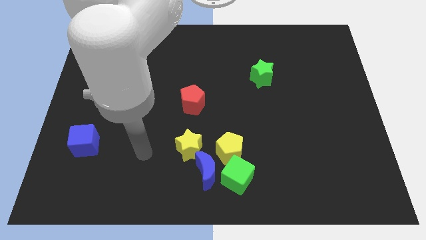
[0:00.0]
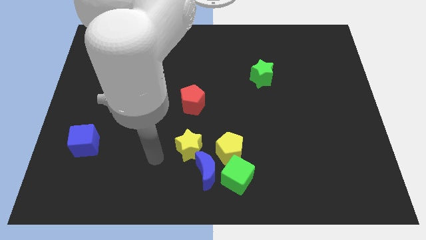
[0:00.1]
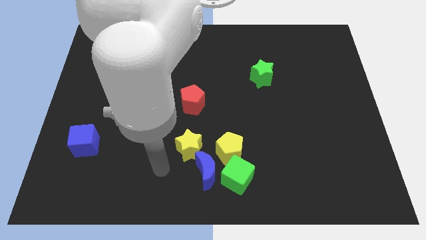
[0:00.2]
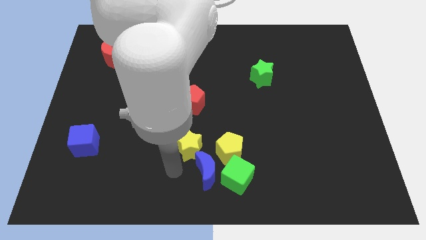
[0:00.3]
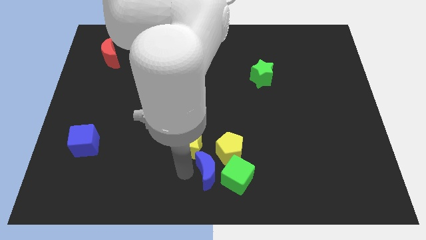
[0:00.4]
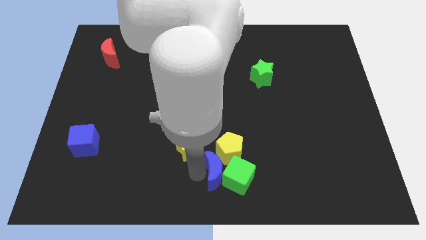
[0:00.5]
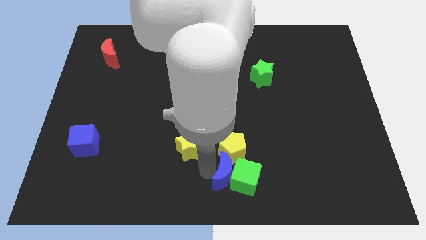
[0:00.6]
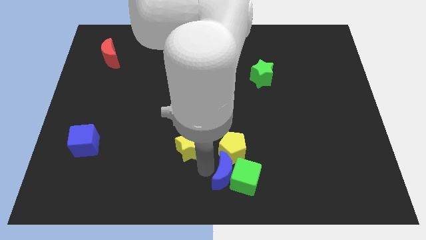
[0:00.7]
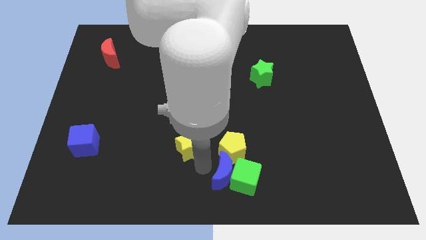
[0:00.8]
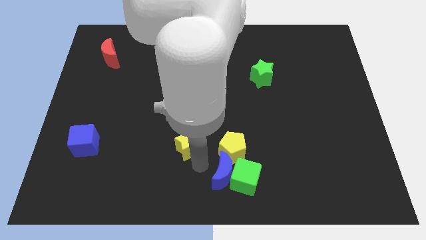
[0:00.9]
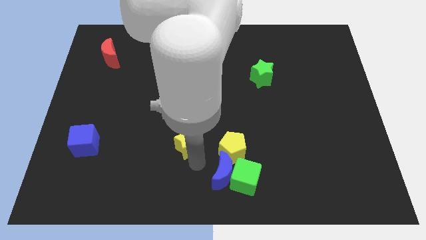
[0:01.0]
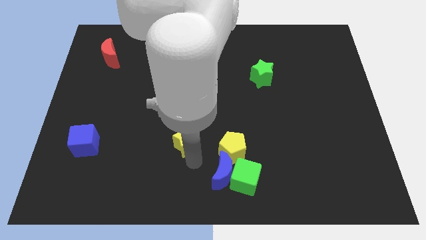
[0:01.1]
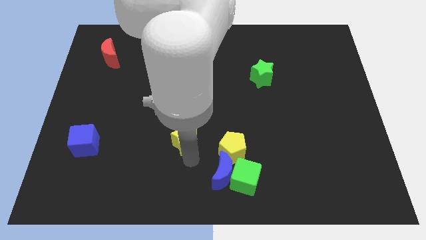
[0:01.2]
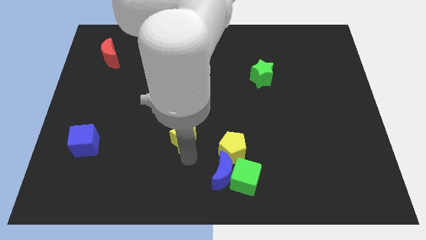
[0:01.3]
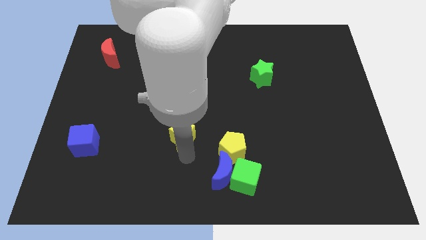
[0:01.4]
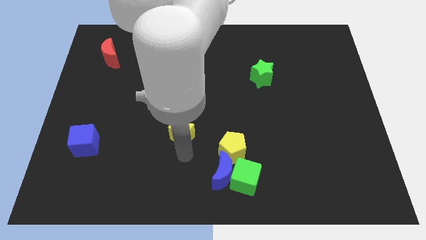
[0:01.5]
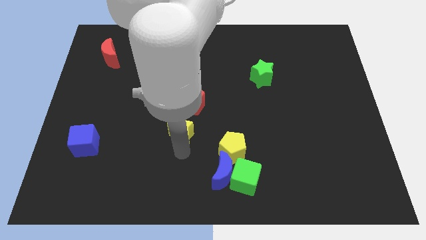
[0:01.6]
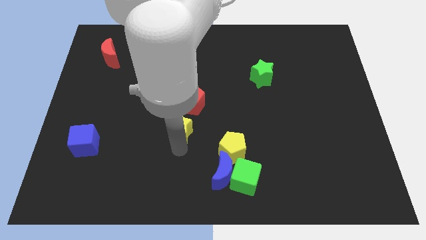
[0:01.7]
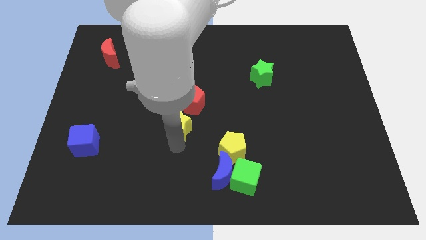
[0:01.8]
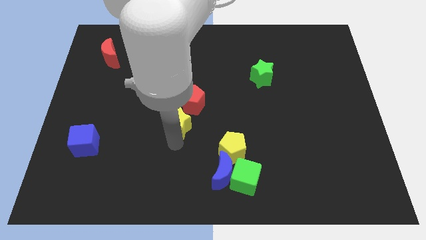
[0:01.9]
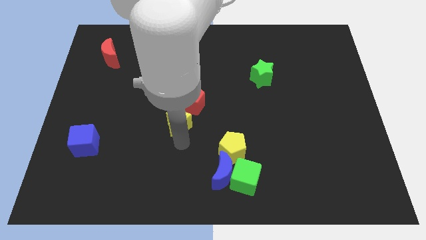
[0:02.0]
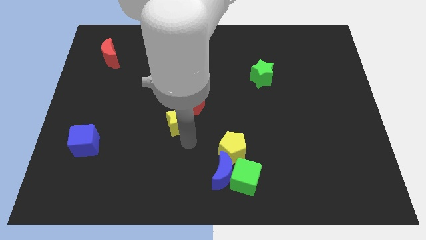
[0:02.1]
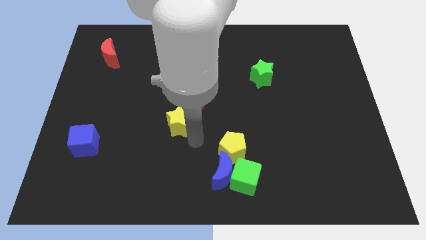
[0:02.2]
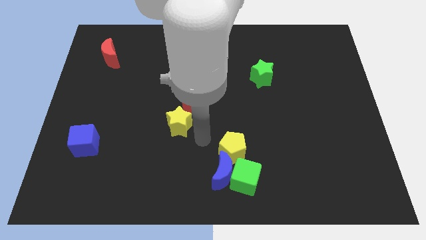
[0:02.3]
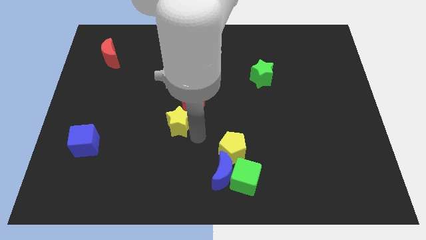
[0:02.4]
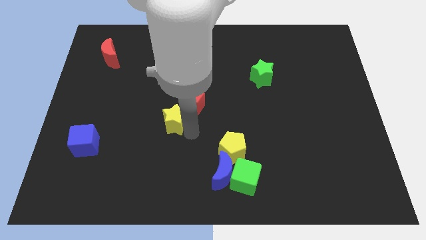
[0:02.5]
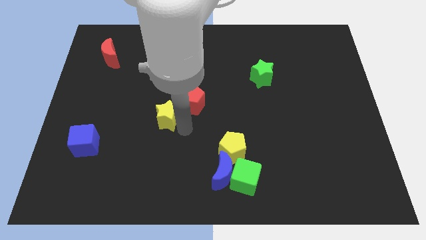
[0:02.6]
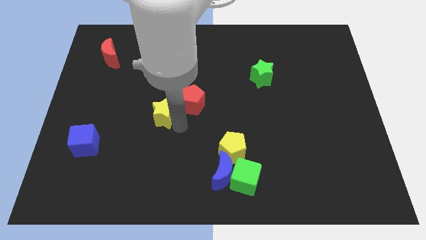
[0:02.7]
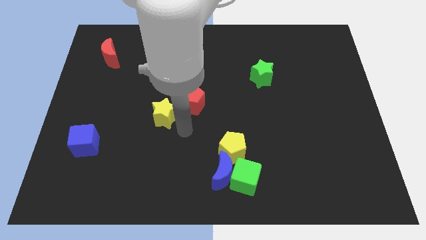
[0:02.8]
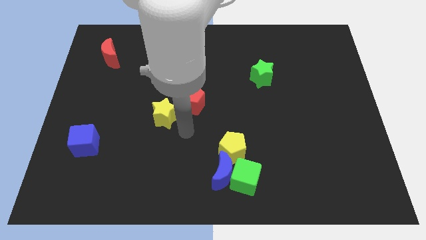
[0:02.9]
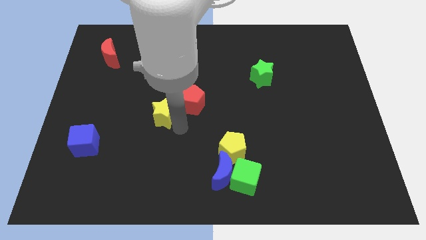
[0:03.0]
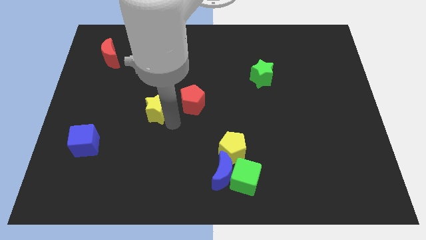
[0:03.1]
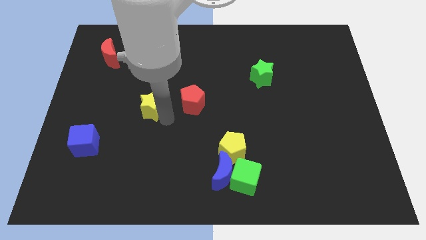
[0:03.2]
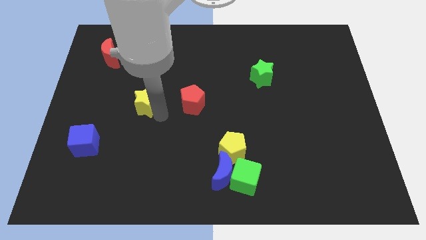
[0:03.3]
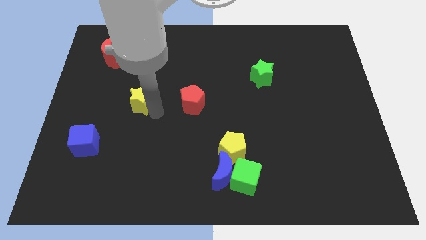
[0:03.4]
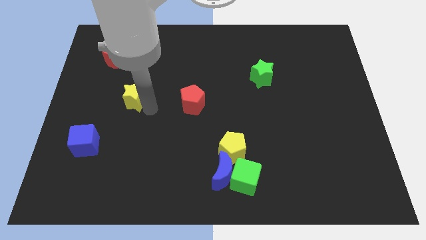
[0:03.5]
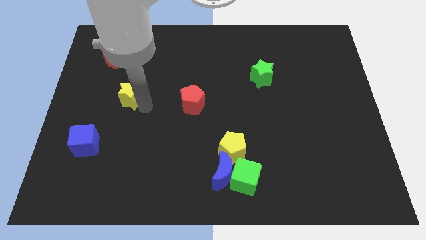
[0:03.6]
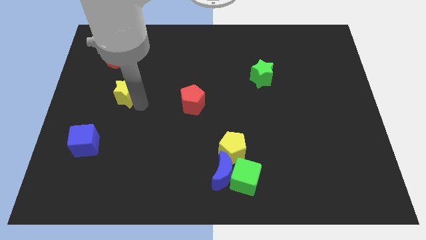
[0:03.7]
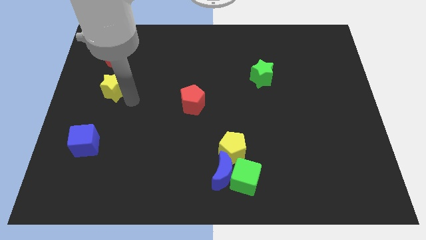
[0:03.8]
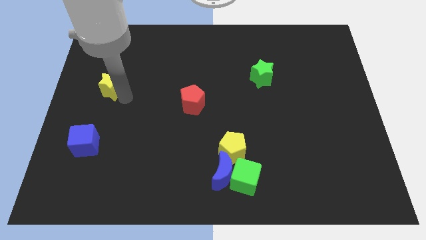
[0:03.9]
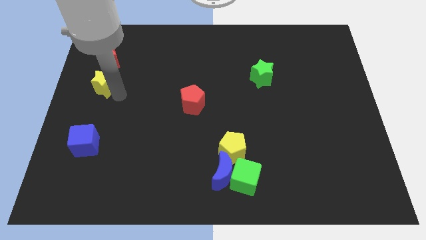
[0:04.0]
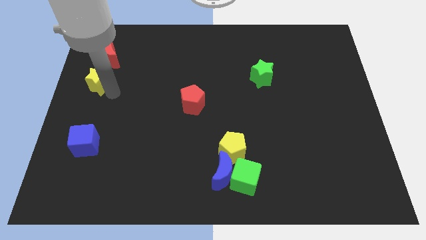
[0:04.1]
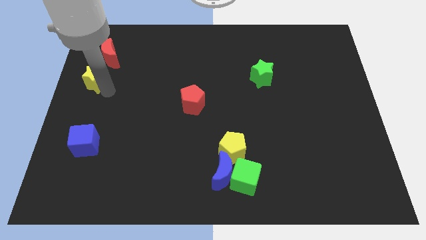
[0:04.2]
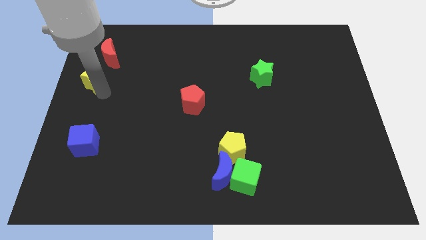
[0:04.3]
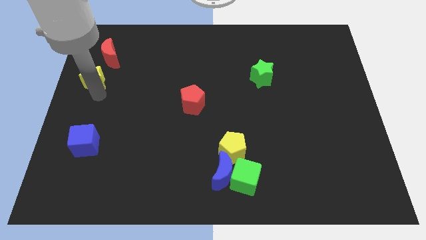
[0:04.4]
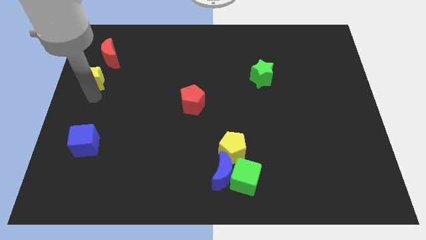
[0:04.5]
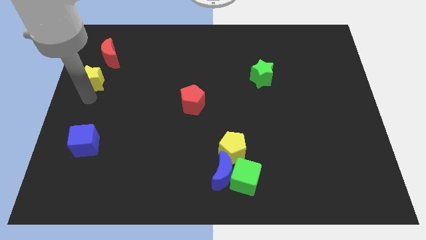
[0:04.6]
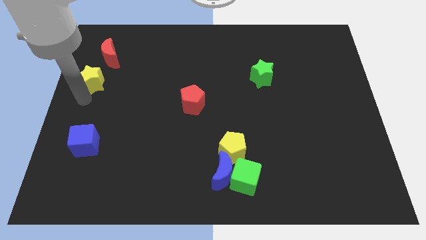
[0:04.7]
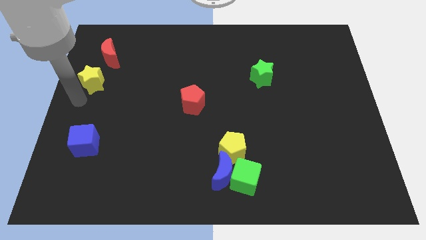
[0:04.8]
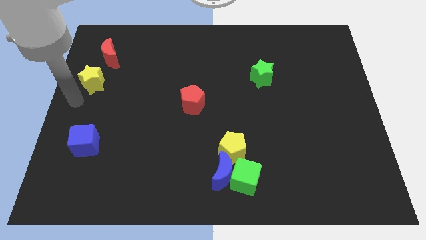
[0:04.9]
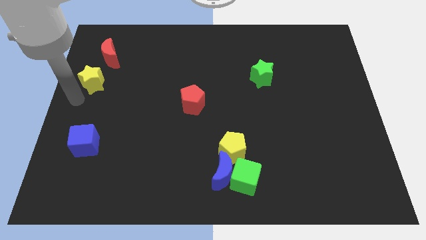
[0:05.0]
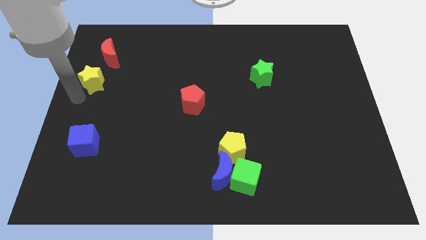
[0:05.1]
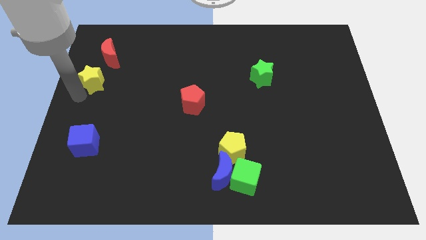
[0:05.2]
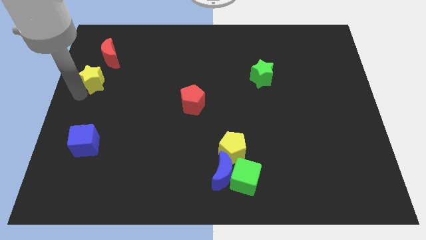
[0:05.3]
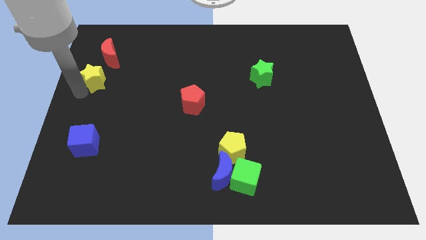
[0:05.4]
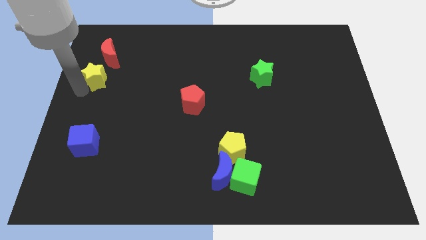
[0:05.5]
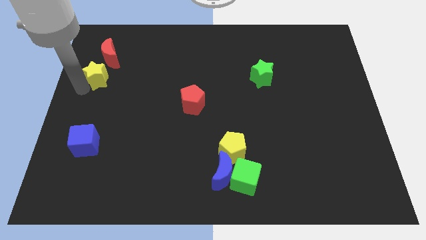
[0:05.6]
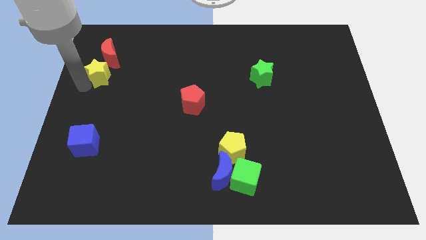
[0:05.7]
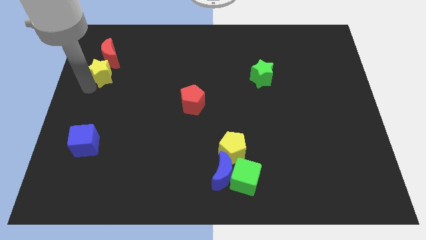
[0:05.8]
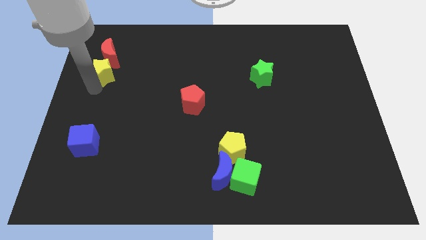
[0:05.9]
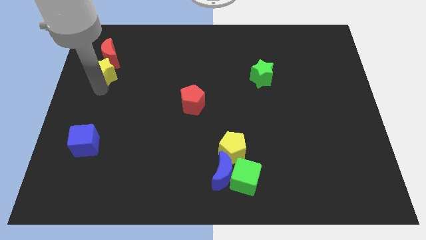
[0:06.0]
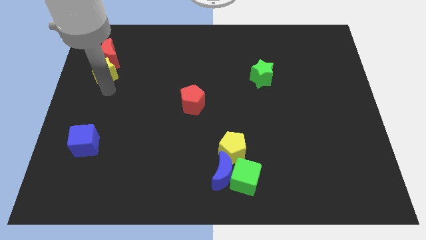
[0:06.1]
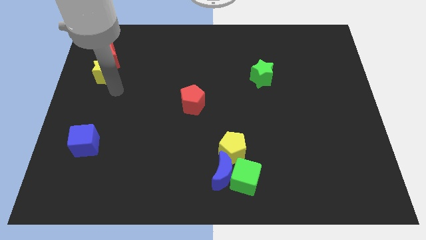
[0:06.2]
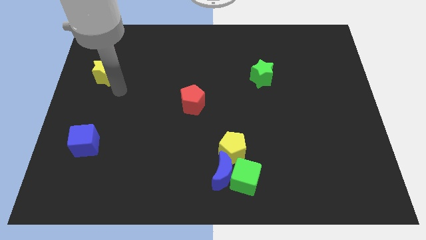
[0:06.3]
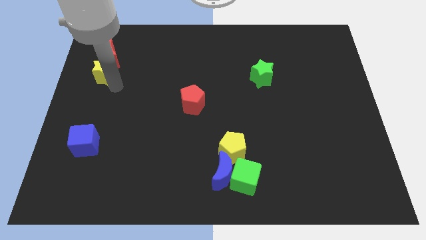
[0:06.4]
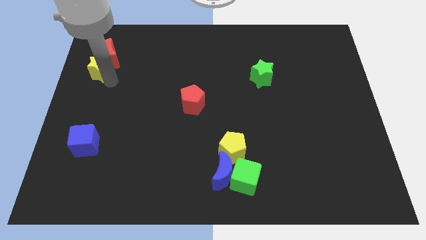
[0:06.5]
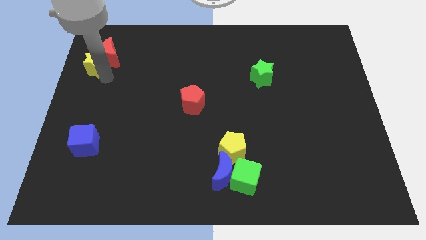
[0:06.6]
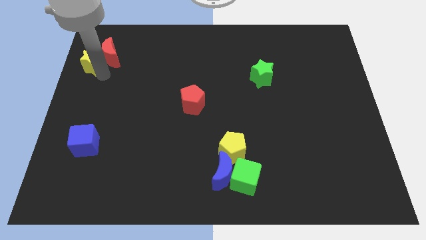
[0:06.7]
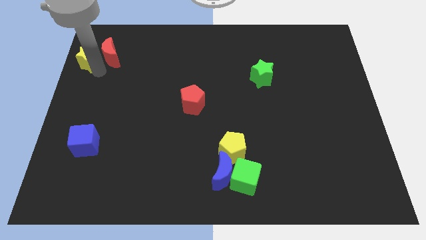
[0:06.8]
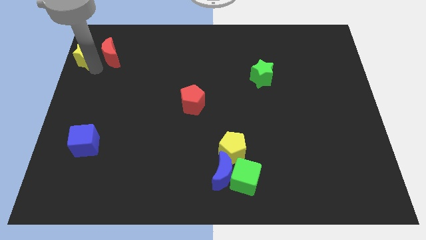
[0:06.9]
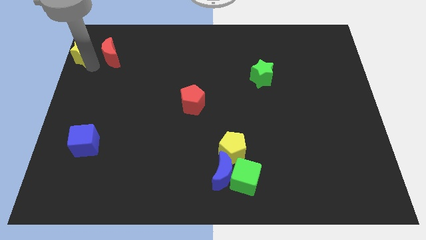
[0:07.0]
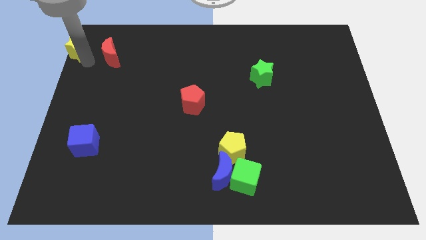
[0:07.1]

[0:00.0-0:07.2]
move the yellow star to the top left of the board
